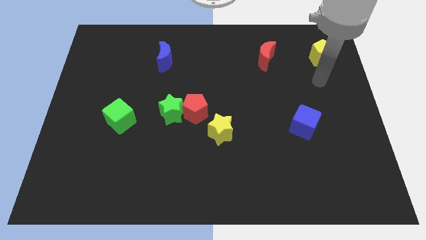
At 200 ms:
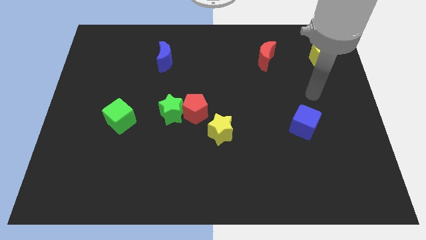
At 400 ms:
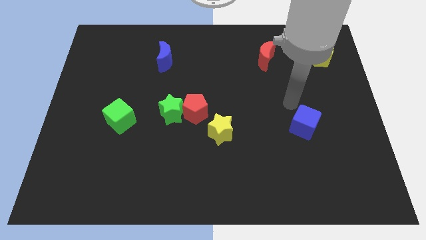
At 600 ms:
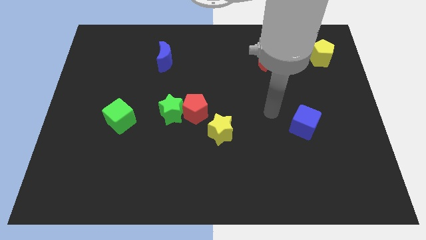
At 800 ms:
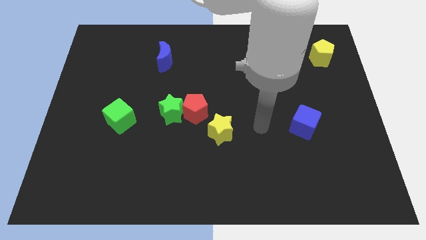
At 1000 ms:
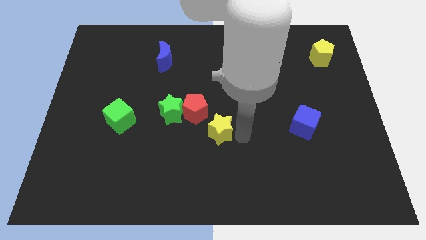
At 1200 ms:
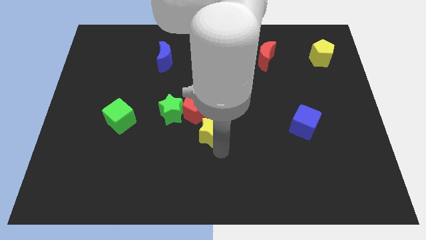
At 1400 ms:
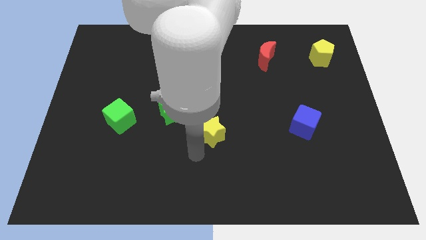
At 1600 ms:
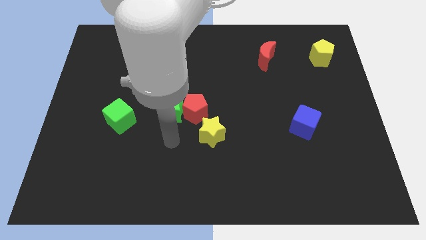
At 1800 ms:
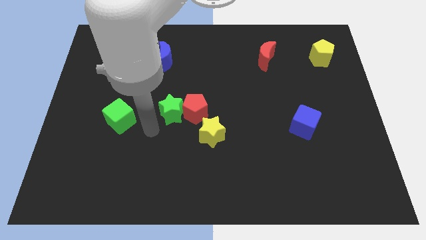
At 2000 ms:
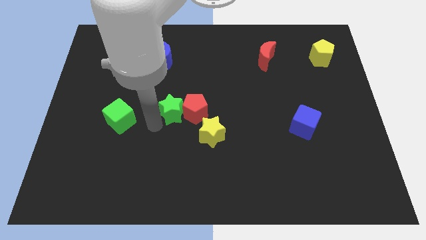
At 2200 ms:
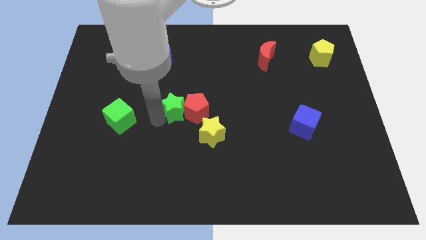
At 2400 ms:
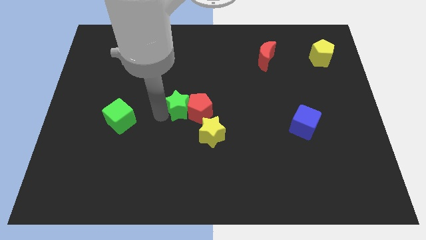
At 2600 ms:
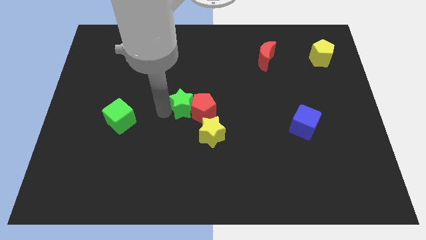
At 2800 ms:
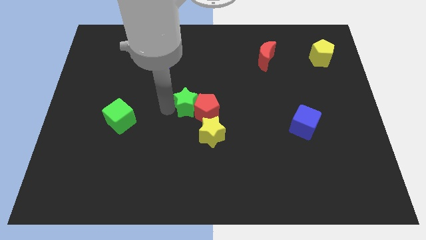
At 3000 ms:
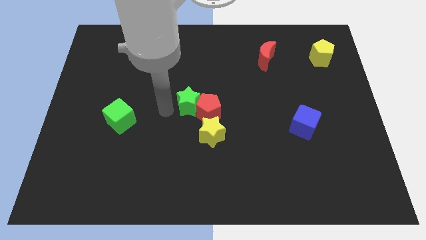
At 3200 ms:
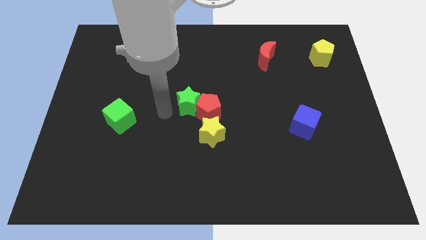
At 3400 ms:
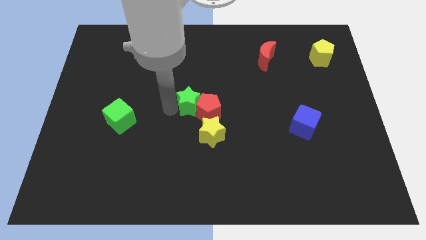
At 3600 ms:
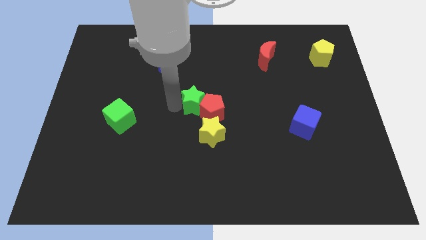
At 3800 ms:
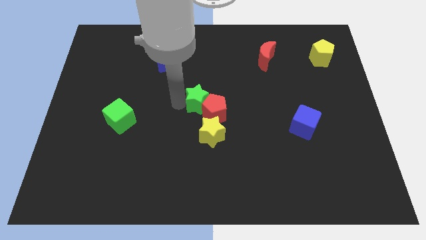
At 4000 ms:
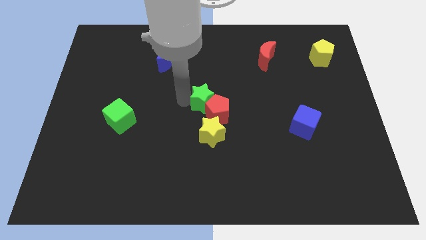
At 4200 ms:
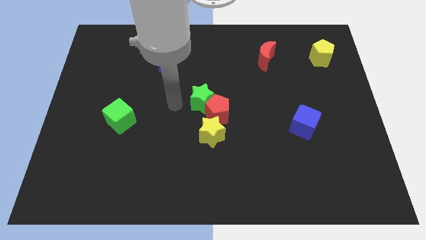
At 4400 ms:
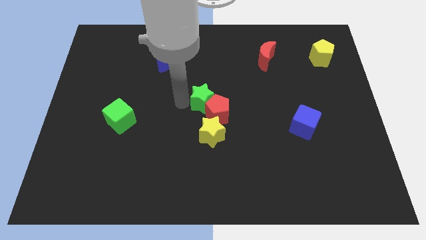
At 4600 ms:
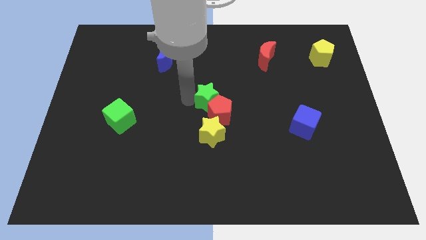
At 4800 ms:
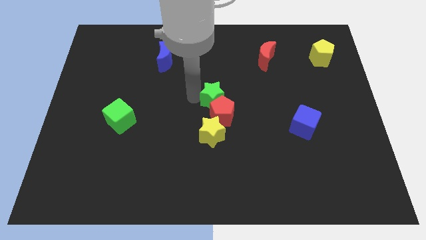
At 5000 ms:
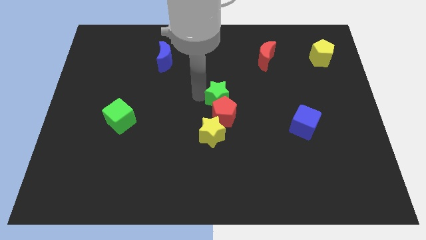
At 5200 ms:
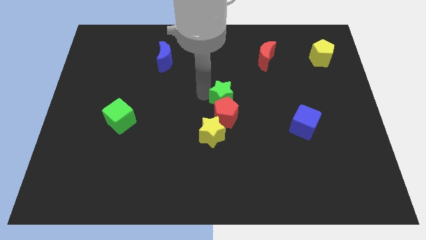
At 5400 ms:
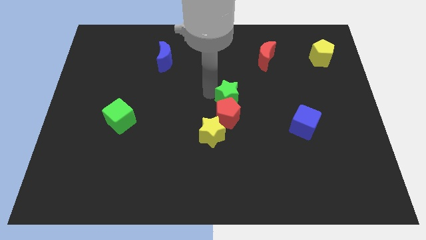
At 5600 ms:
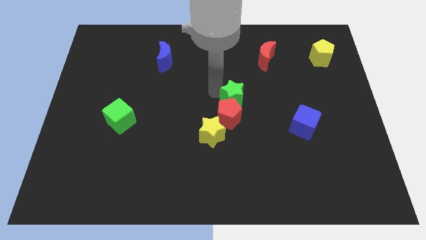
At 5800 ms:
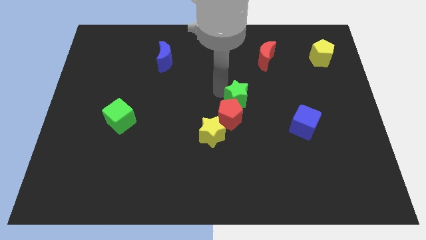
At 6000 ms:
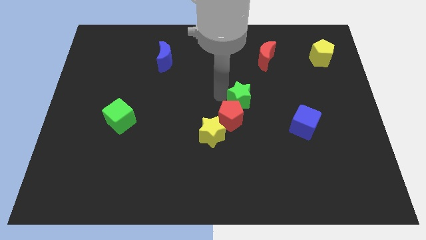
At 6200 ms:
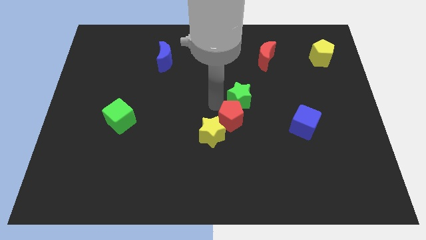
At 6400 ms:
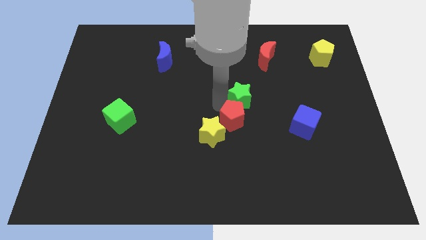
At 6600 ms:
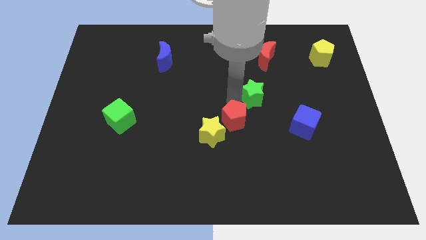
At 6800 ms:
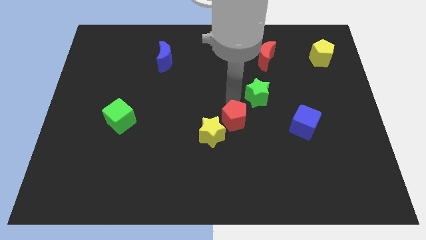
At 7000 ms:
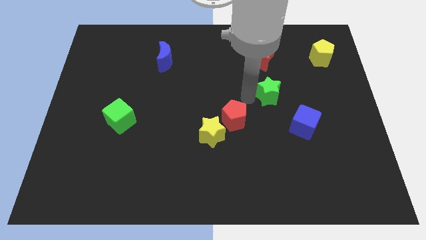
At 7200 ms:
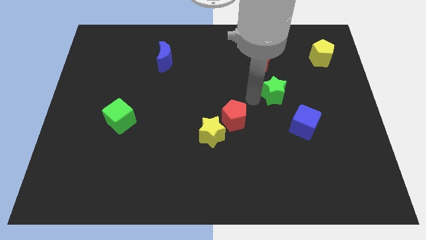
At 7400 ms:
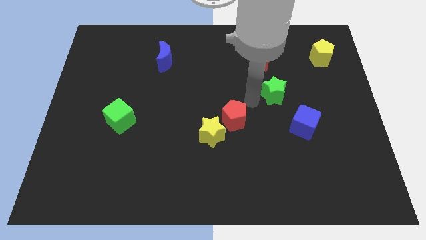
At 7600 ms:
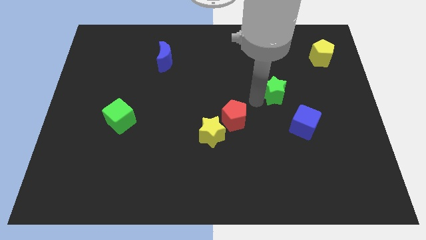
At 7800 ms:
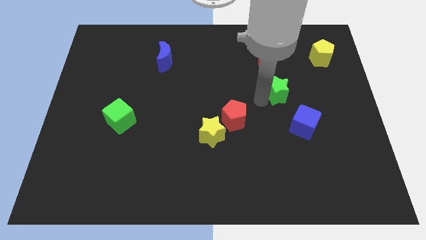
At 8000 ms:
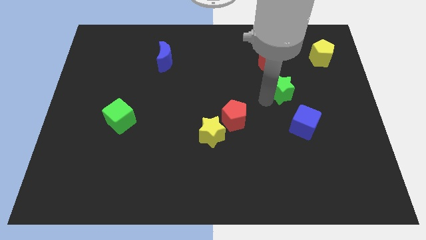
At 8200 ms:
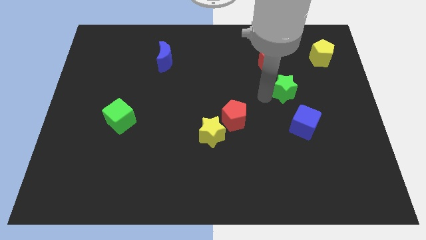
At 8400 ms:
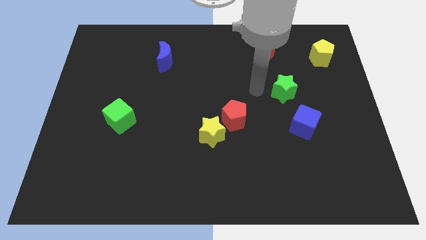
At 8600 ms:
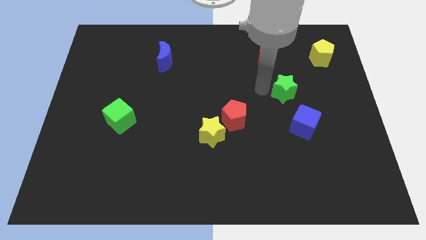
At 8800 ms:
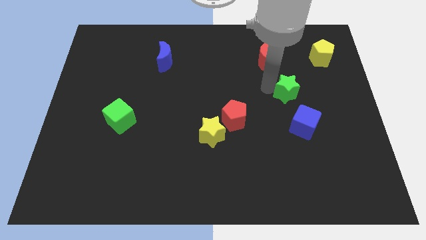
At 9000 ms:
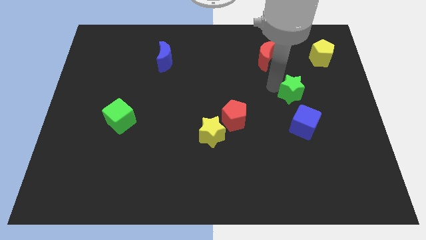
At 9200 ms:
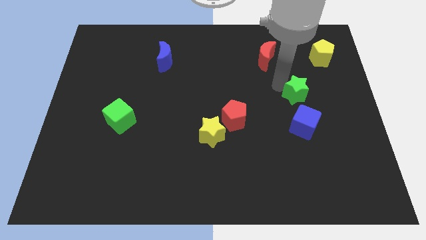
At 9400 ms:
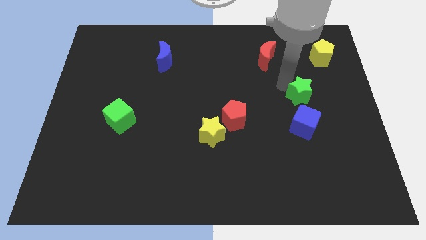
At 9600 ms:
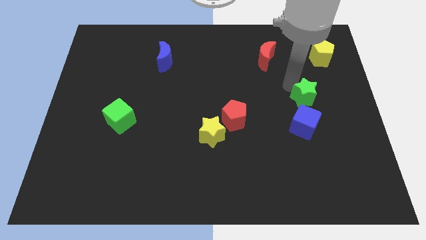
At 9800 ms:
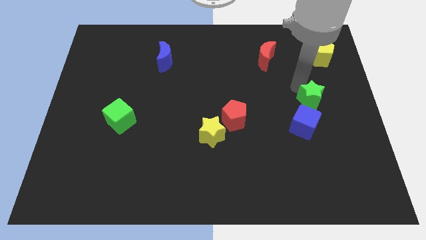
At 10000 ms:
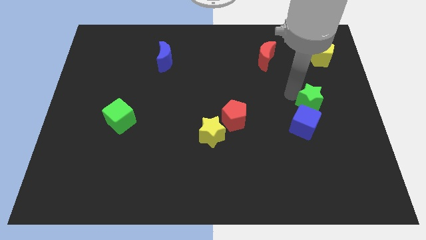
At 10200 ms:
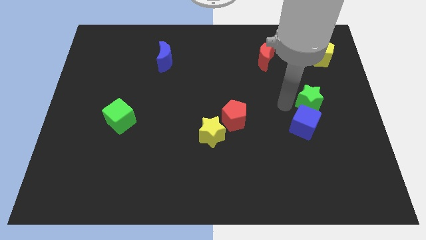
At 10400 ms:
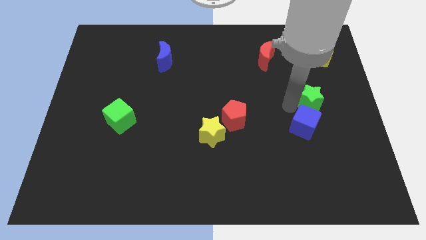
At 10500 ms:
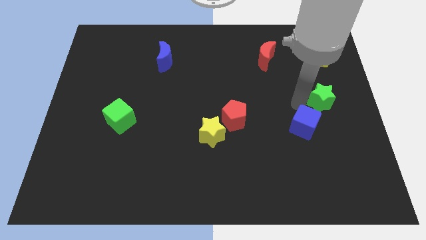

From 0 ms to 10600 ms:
push the green star to the right side
